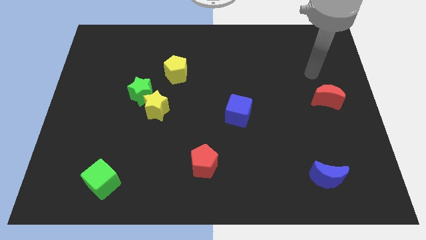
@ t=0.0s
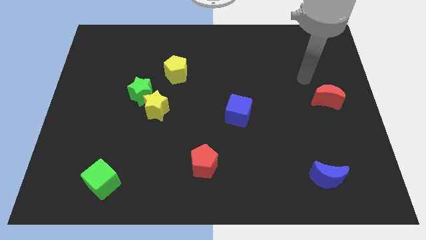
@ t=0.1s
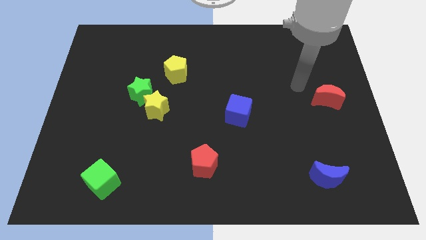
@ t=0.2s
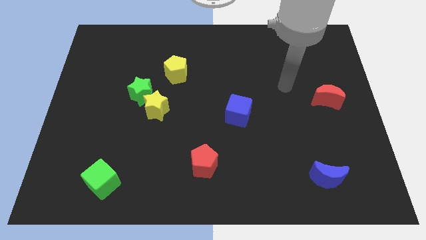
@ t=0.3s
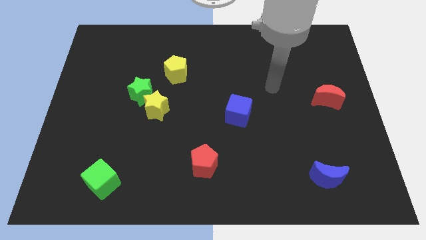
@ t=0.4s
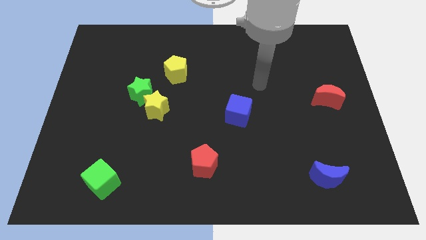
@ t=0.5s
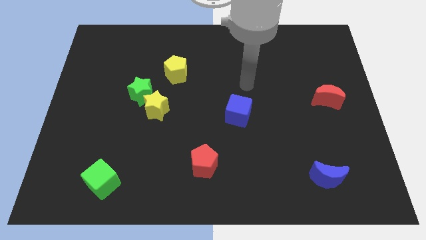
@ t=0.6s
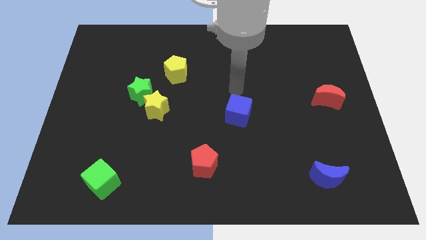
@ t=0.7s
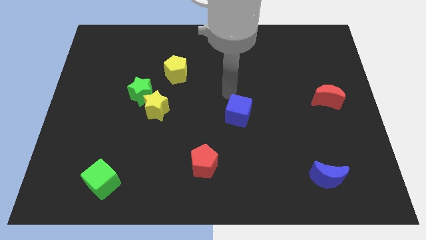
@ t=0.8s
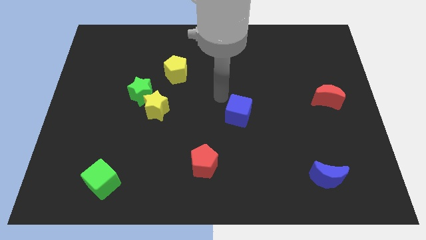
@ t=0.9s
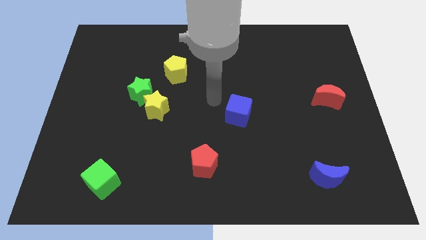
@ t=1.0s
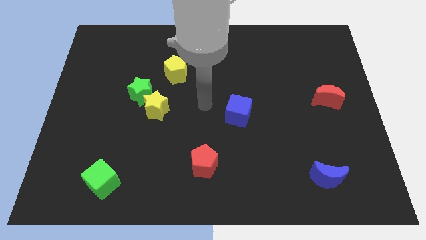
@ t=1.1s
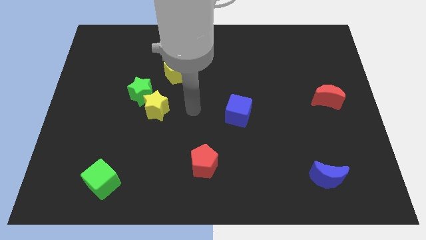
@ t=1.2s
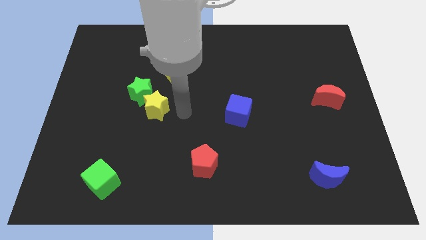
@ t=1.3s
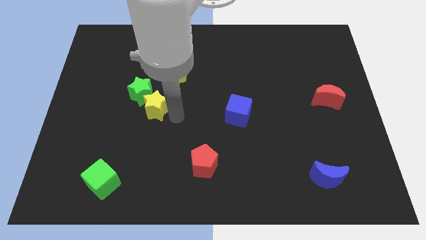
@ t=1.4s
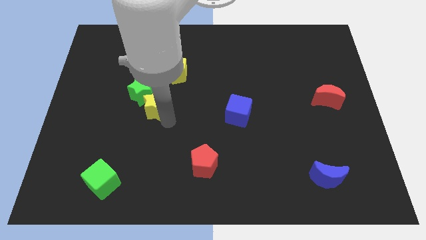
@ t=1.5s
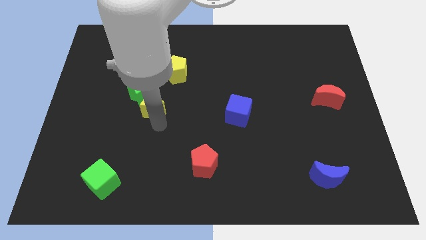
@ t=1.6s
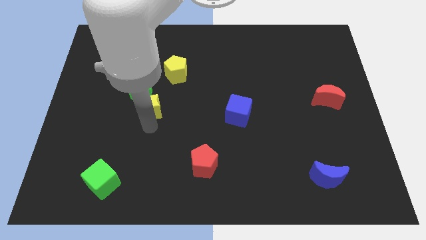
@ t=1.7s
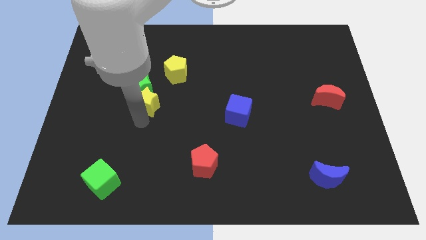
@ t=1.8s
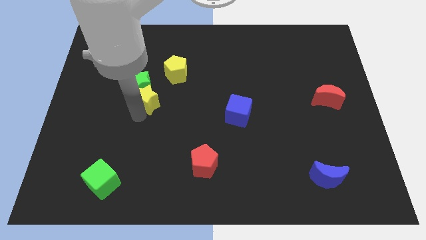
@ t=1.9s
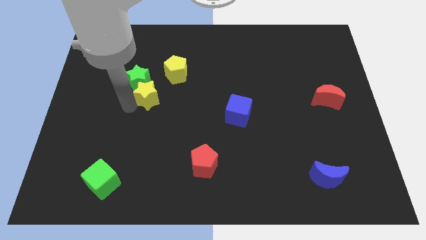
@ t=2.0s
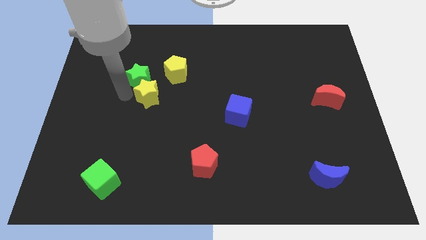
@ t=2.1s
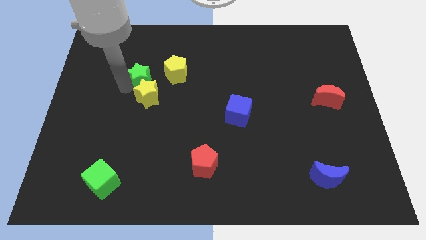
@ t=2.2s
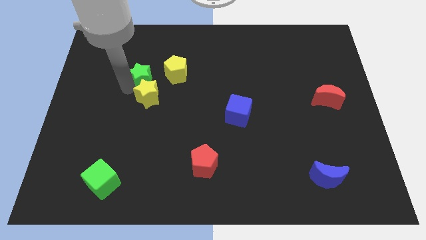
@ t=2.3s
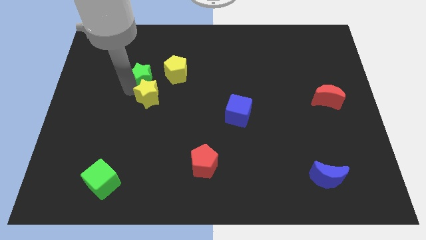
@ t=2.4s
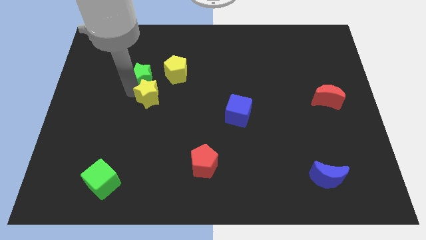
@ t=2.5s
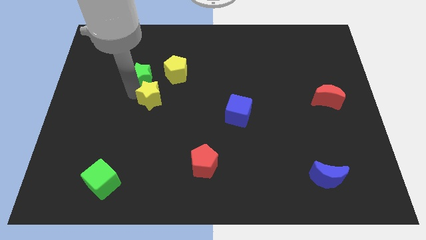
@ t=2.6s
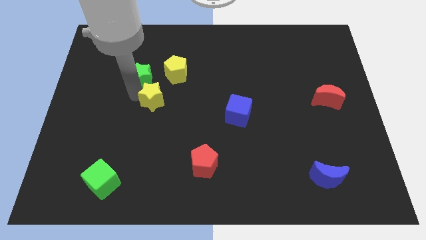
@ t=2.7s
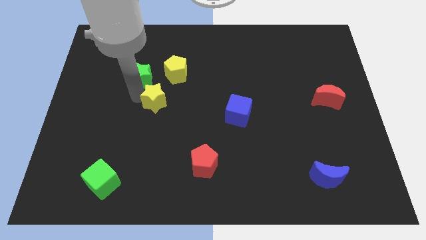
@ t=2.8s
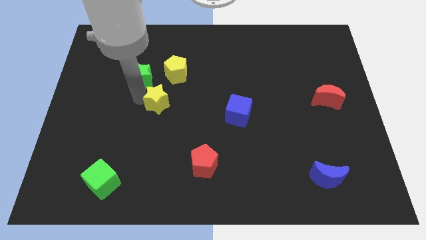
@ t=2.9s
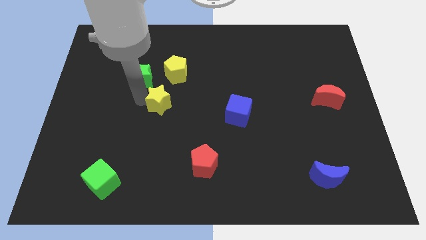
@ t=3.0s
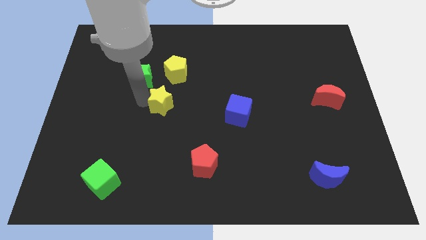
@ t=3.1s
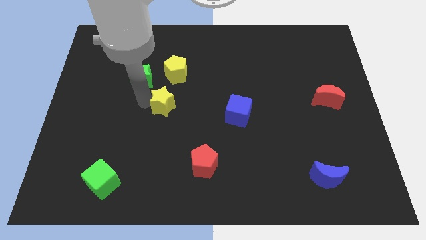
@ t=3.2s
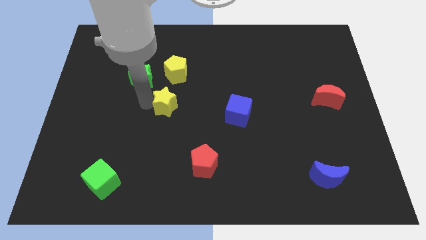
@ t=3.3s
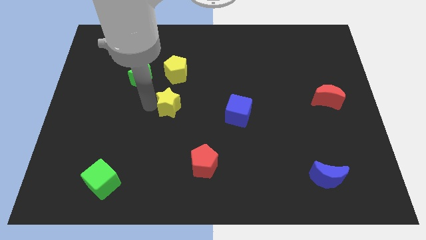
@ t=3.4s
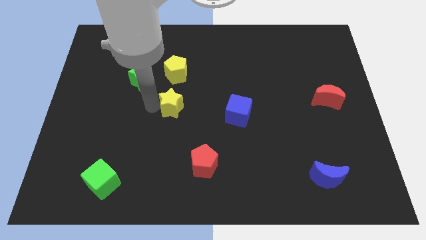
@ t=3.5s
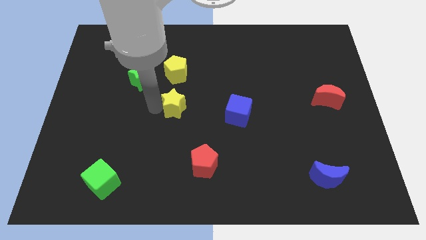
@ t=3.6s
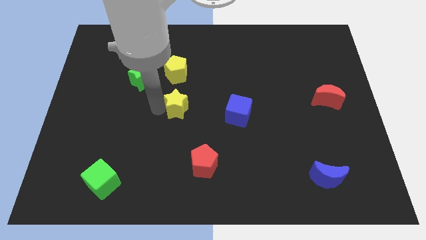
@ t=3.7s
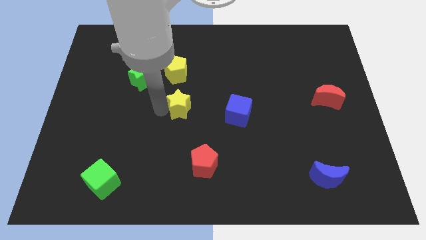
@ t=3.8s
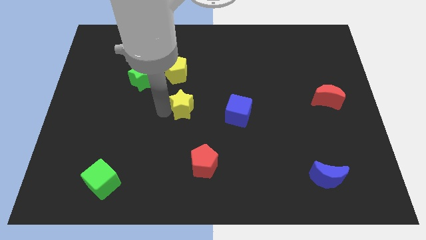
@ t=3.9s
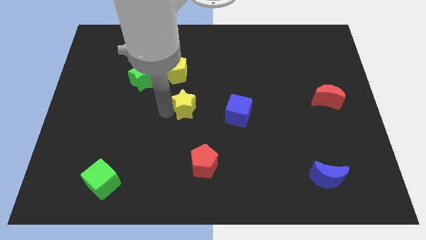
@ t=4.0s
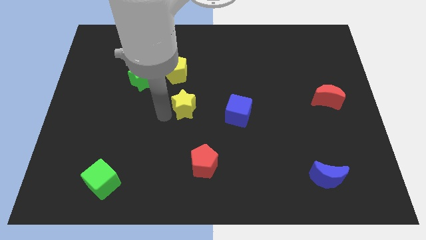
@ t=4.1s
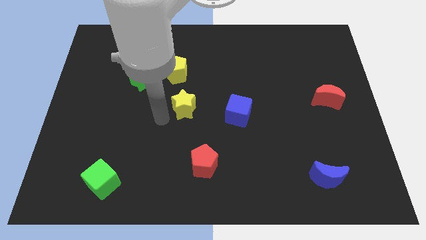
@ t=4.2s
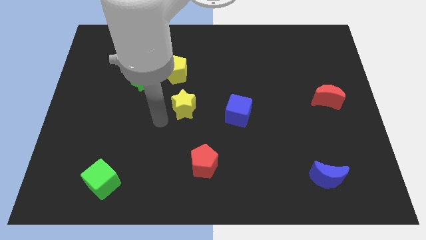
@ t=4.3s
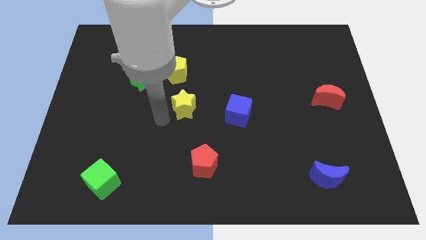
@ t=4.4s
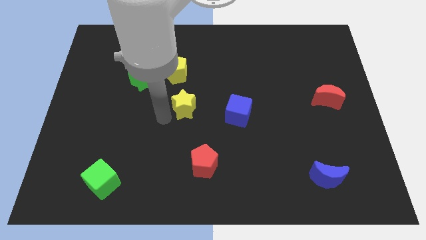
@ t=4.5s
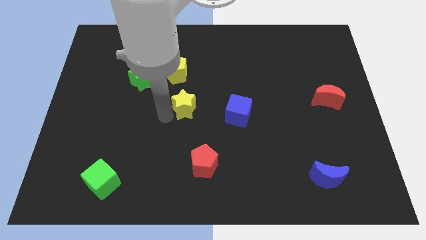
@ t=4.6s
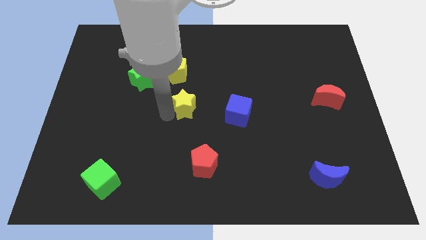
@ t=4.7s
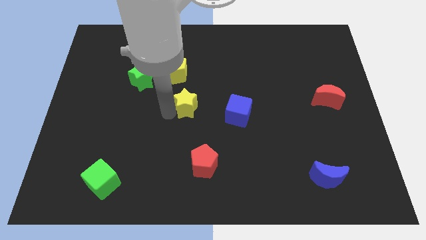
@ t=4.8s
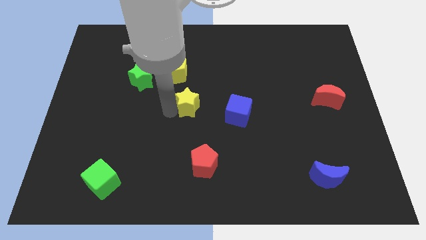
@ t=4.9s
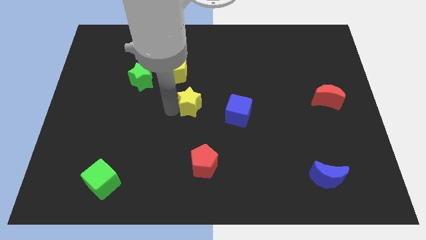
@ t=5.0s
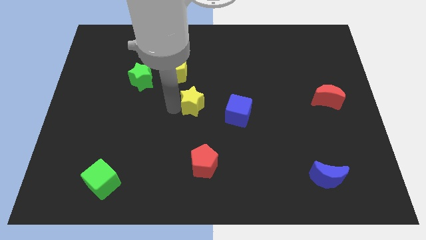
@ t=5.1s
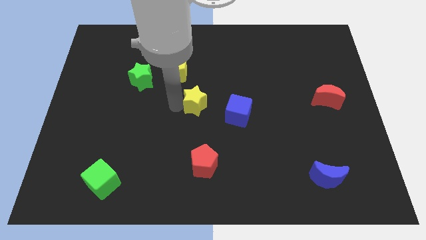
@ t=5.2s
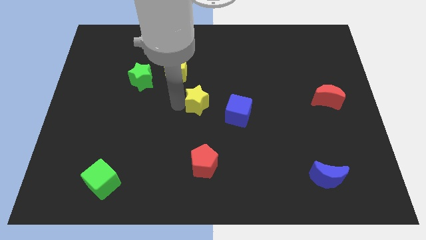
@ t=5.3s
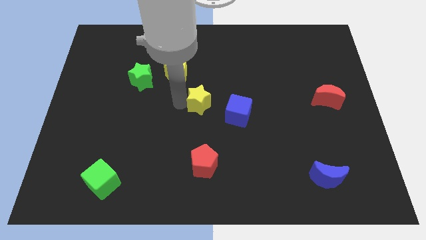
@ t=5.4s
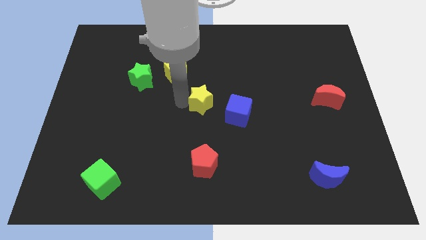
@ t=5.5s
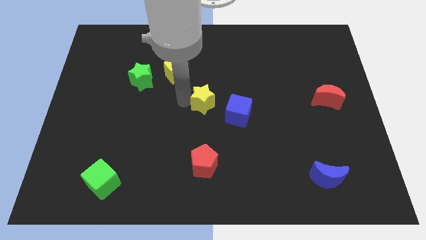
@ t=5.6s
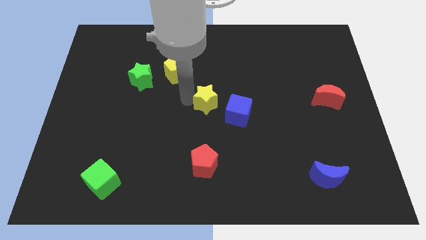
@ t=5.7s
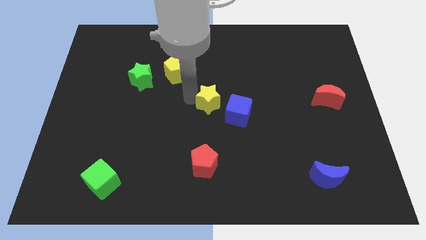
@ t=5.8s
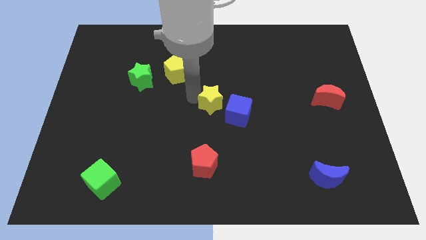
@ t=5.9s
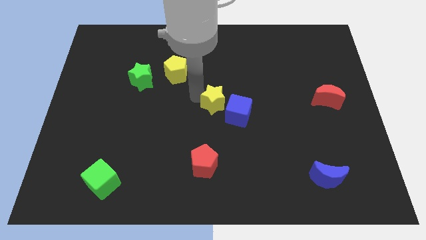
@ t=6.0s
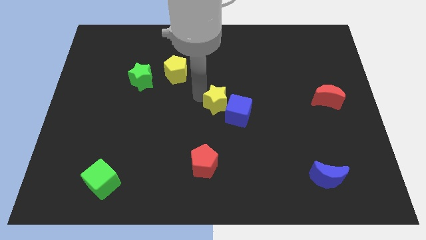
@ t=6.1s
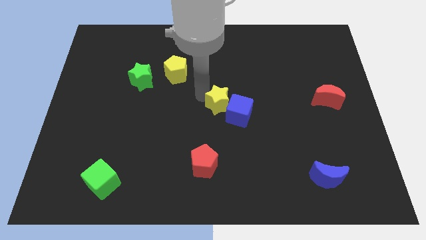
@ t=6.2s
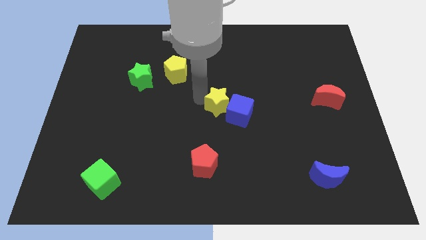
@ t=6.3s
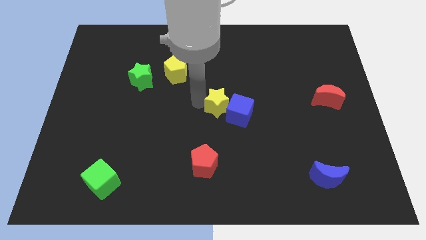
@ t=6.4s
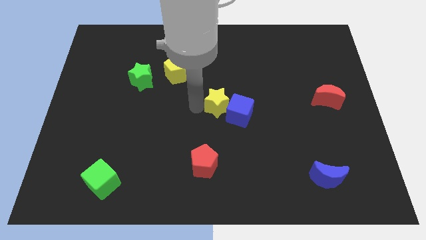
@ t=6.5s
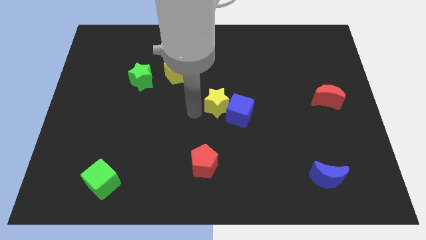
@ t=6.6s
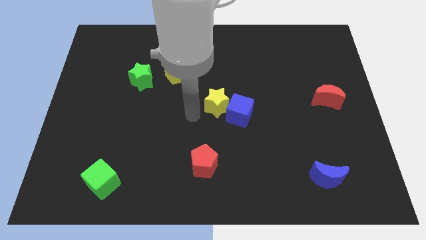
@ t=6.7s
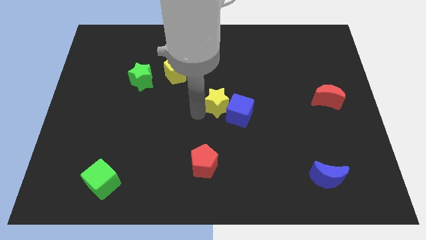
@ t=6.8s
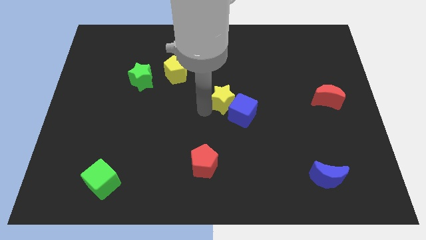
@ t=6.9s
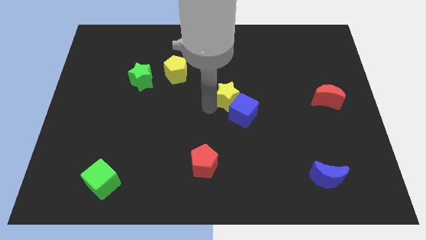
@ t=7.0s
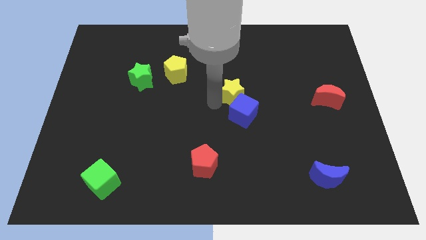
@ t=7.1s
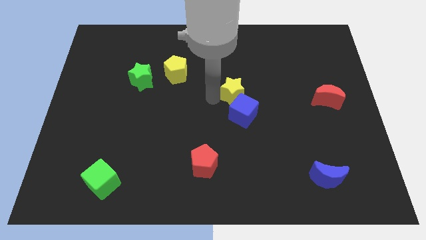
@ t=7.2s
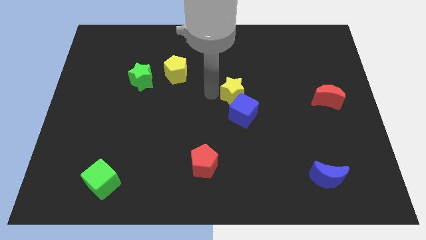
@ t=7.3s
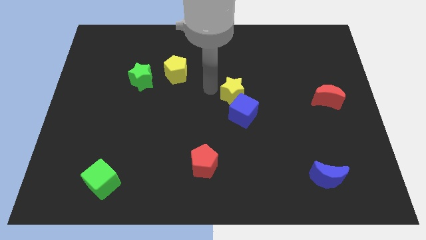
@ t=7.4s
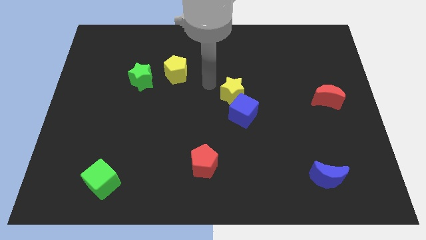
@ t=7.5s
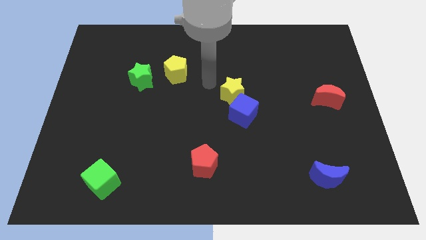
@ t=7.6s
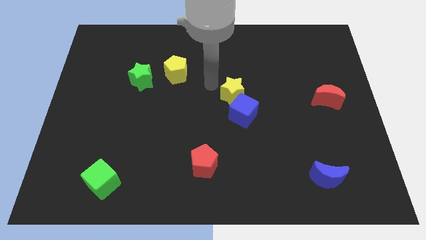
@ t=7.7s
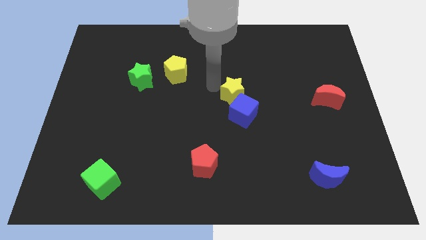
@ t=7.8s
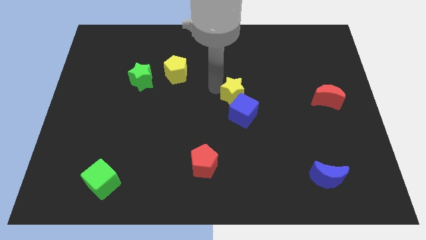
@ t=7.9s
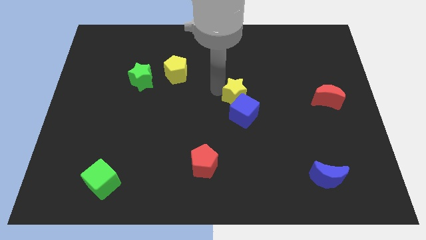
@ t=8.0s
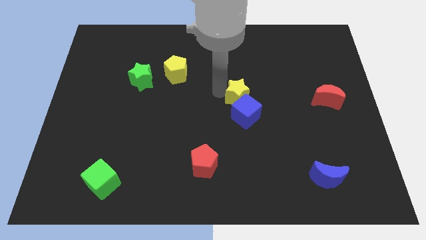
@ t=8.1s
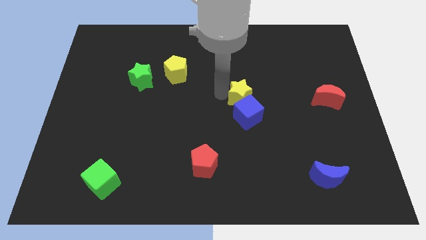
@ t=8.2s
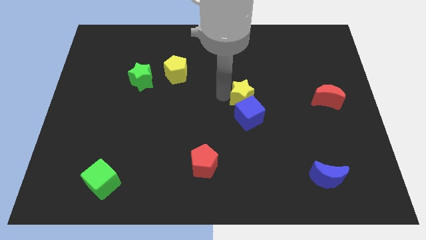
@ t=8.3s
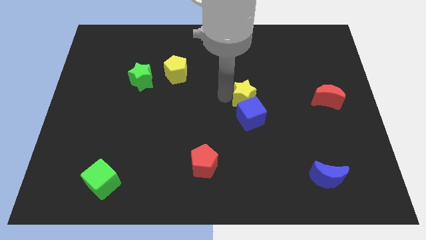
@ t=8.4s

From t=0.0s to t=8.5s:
push the yellow star right

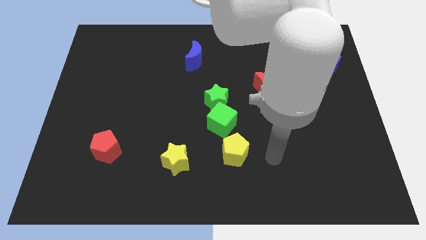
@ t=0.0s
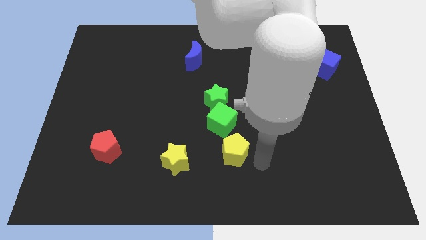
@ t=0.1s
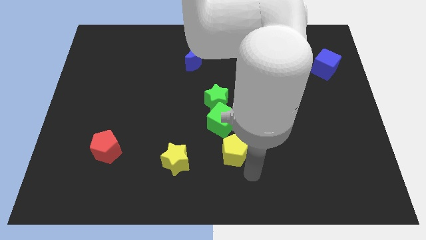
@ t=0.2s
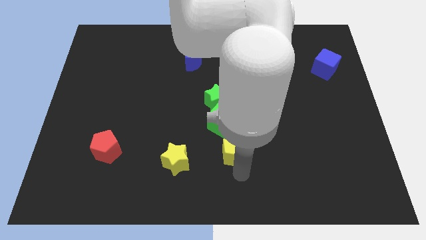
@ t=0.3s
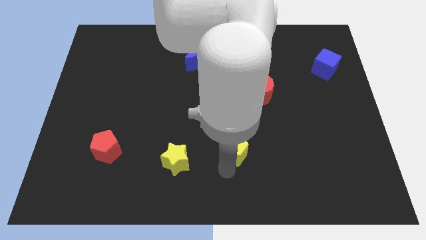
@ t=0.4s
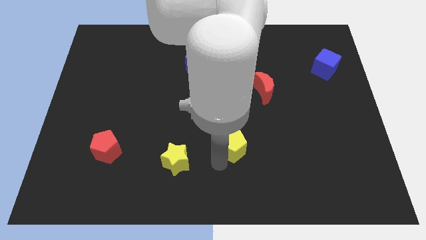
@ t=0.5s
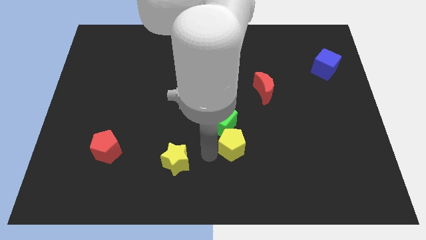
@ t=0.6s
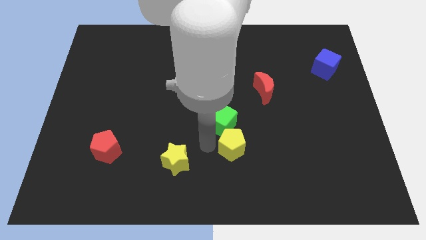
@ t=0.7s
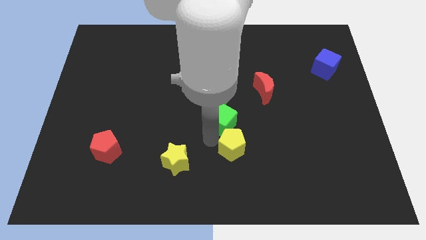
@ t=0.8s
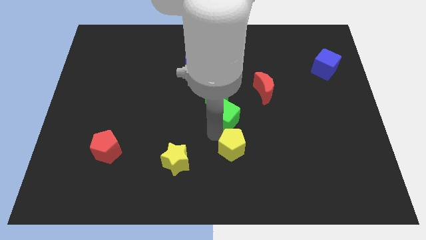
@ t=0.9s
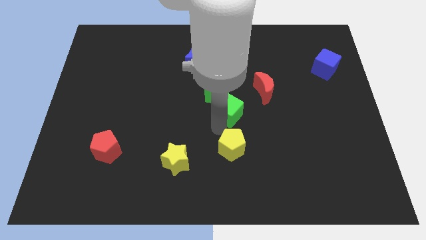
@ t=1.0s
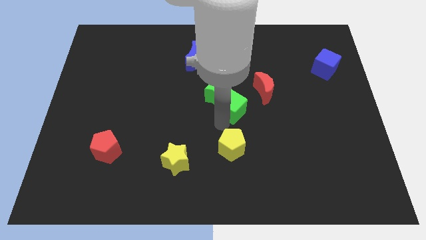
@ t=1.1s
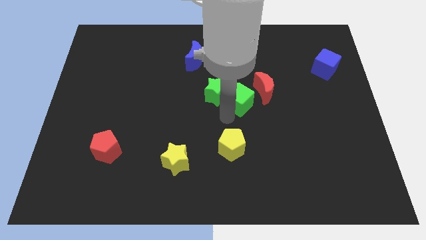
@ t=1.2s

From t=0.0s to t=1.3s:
push the green cube a bit upwards and to the right diagonally
